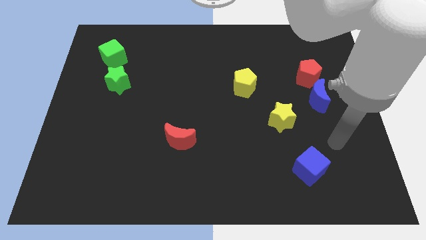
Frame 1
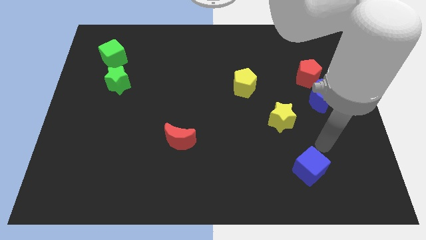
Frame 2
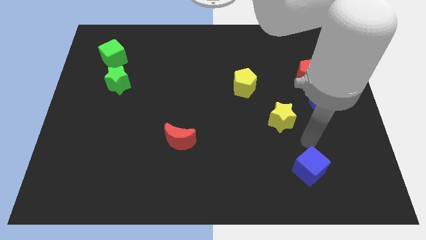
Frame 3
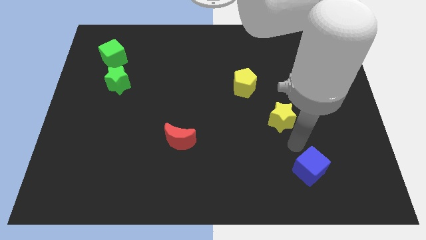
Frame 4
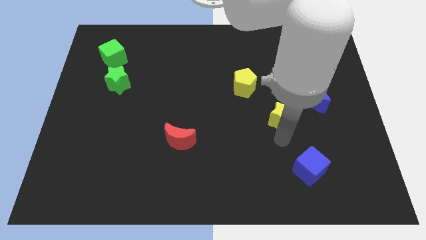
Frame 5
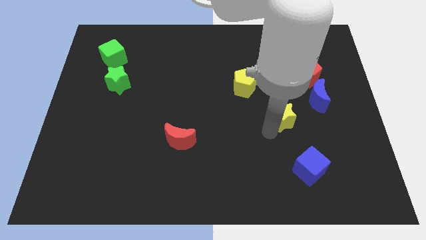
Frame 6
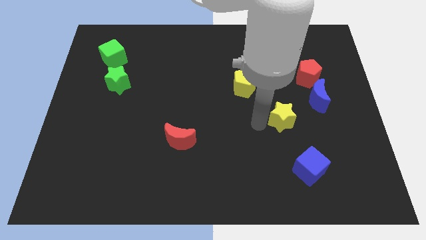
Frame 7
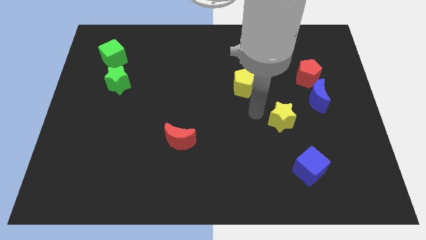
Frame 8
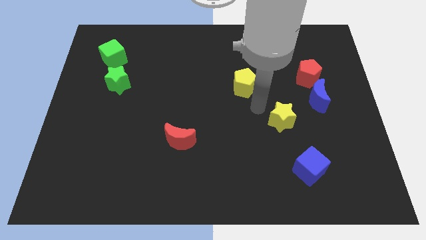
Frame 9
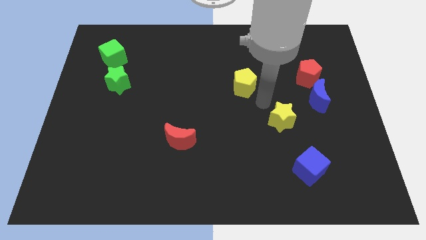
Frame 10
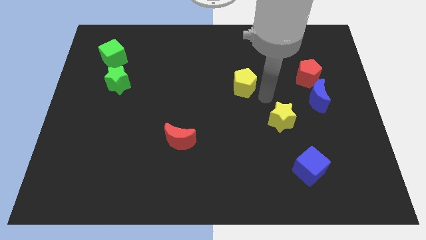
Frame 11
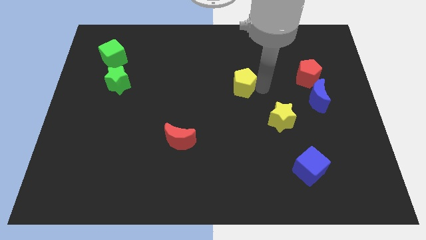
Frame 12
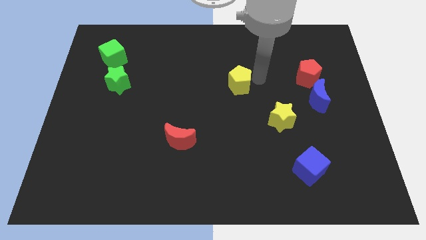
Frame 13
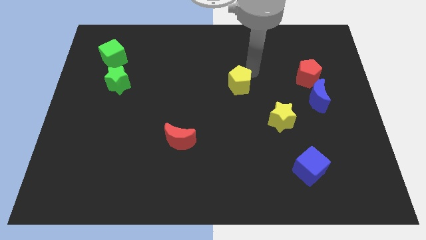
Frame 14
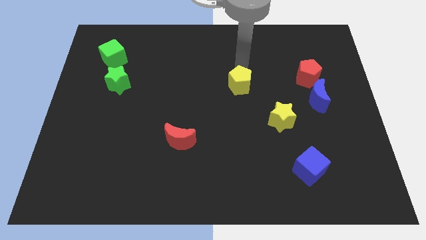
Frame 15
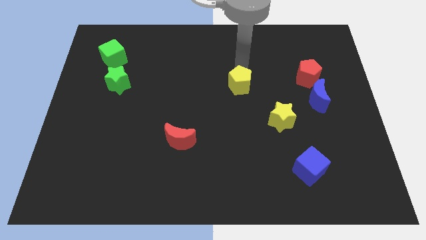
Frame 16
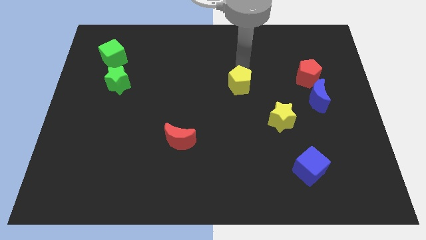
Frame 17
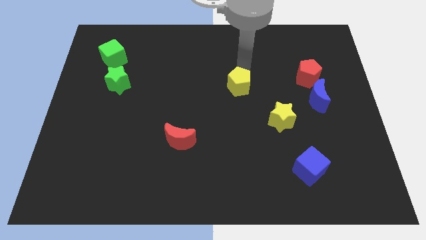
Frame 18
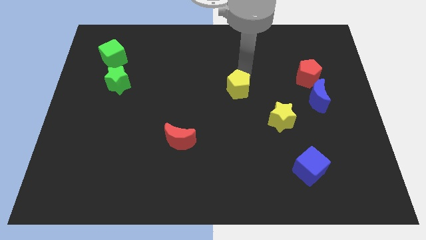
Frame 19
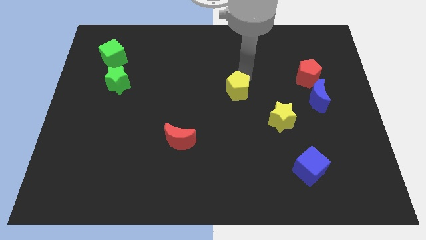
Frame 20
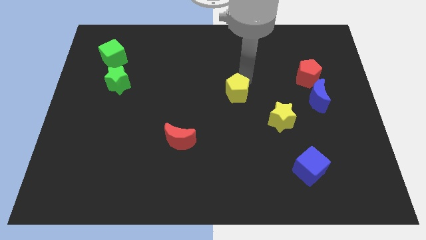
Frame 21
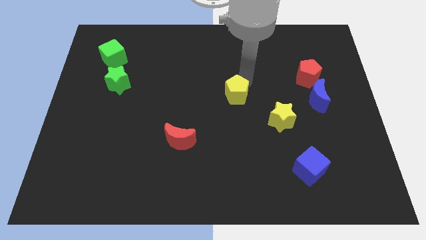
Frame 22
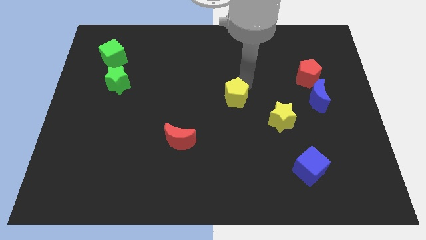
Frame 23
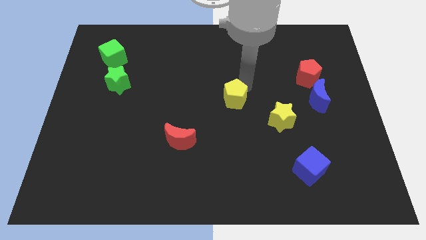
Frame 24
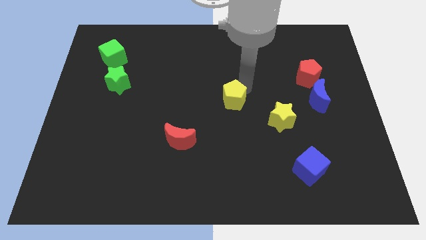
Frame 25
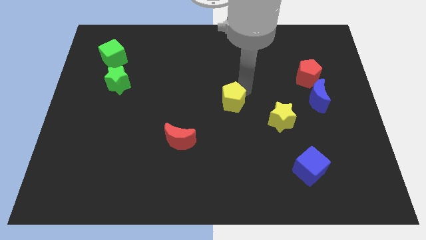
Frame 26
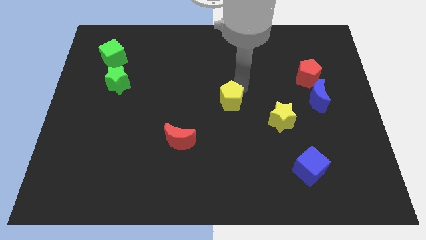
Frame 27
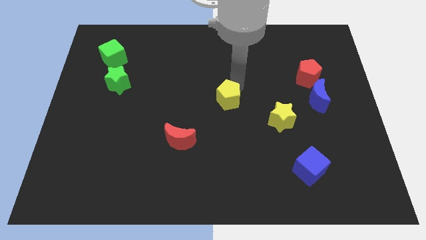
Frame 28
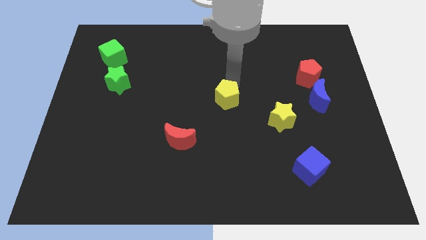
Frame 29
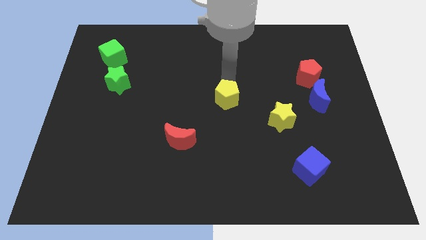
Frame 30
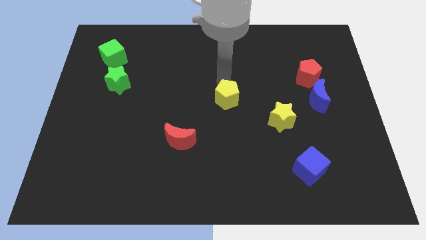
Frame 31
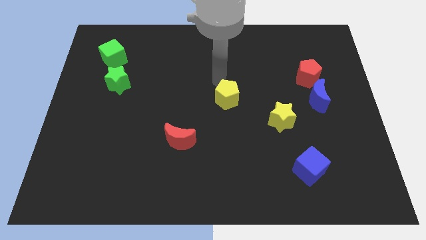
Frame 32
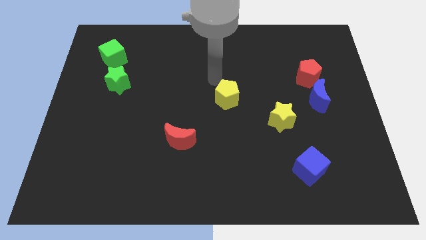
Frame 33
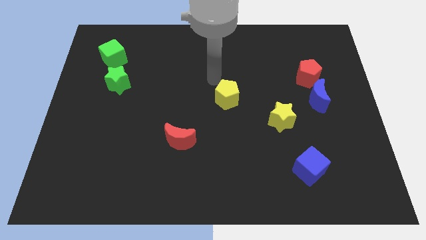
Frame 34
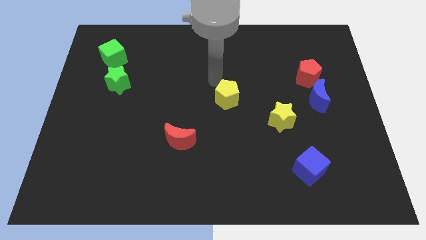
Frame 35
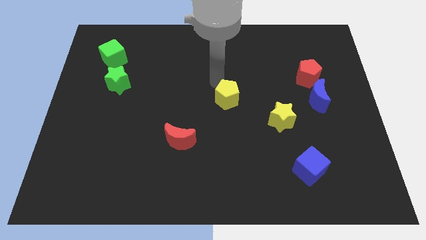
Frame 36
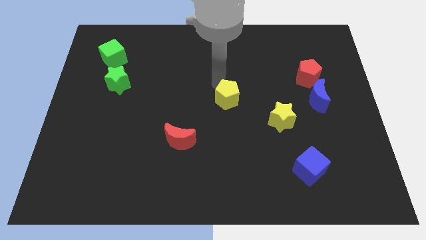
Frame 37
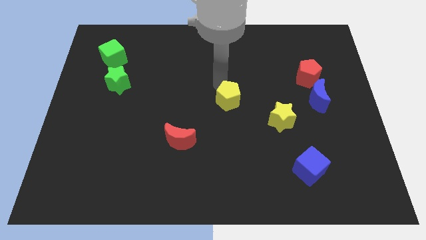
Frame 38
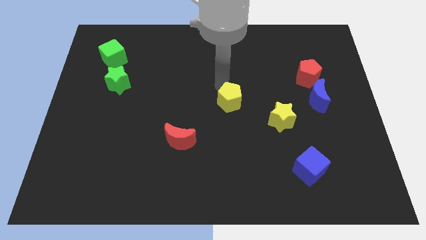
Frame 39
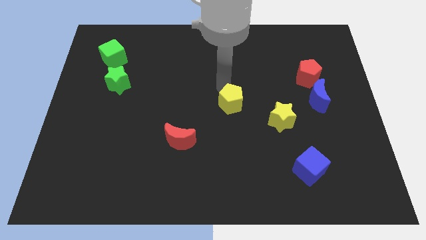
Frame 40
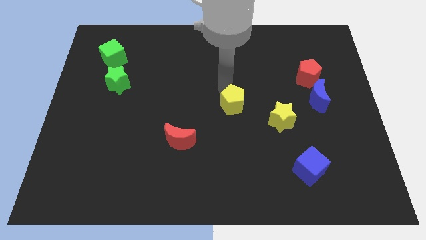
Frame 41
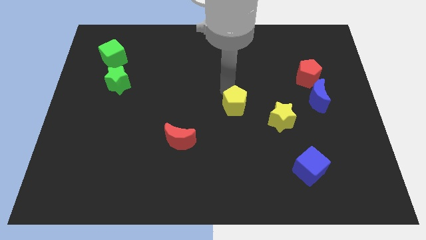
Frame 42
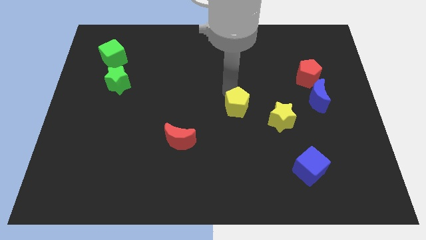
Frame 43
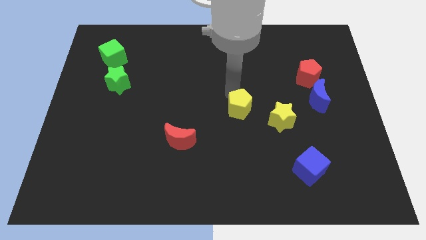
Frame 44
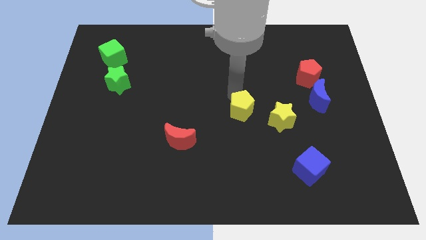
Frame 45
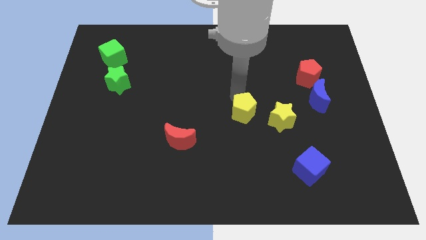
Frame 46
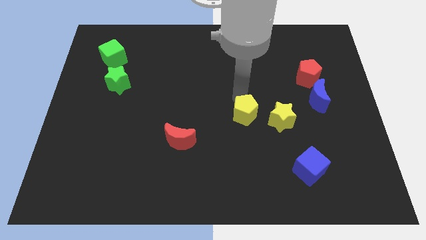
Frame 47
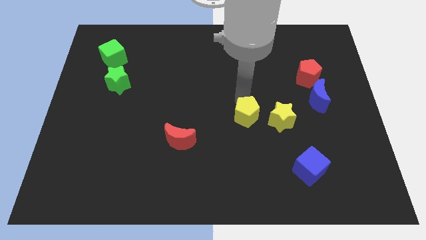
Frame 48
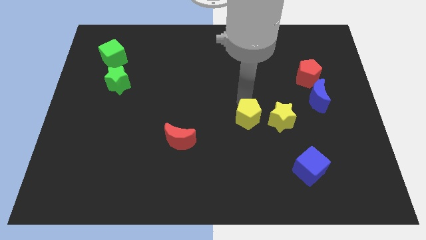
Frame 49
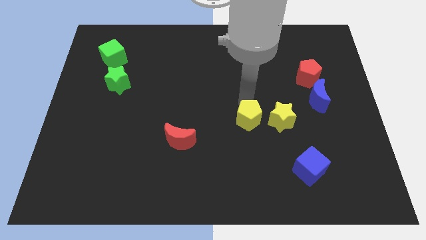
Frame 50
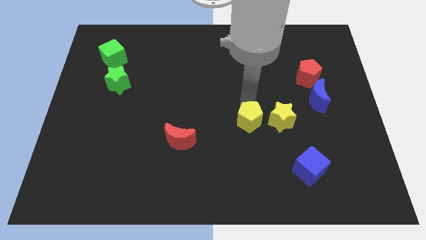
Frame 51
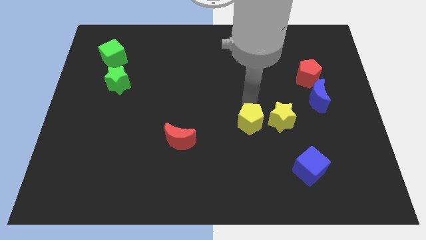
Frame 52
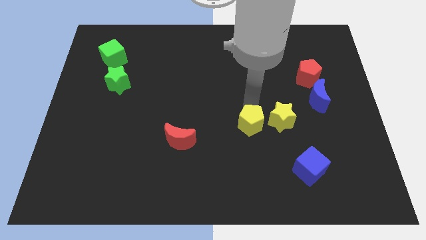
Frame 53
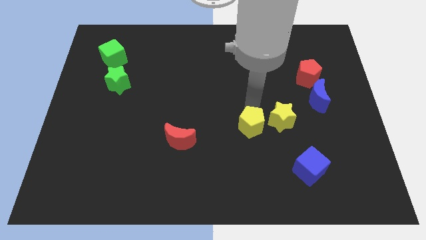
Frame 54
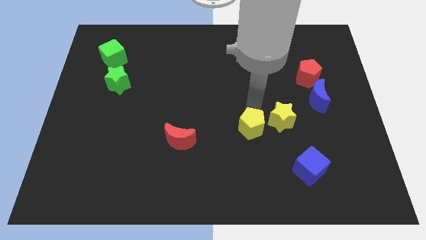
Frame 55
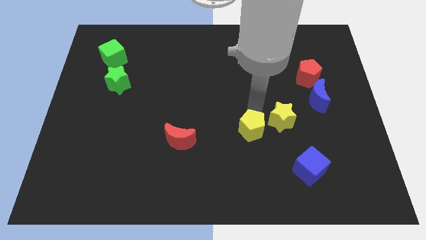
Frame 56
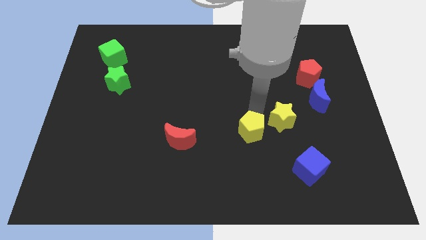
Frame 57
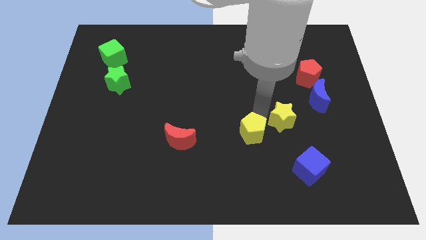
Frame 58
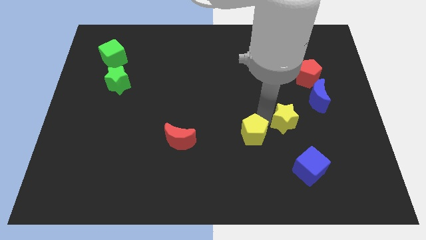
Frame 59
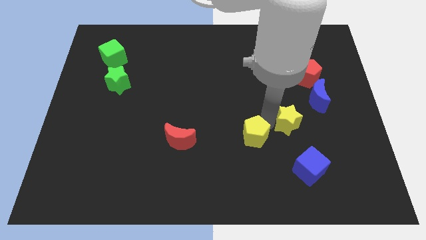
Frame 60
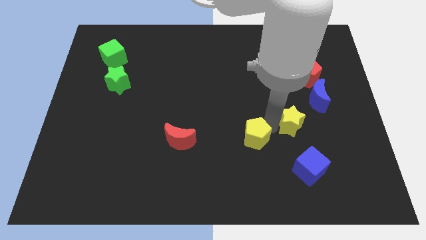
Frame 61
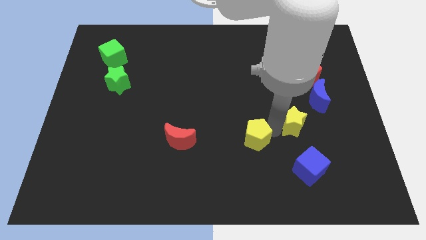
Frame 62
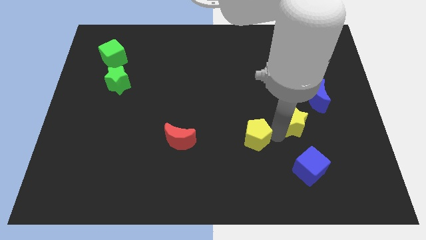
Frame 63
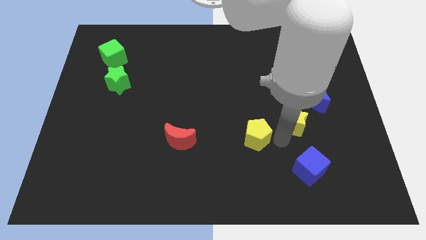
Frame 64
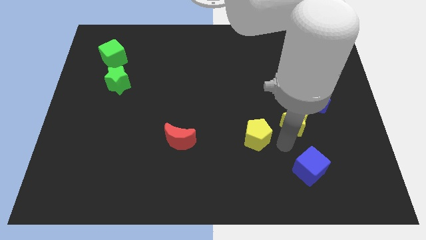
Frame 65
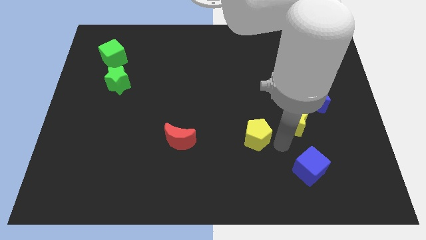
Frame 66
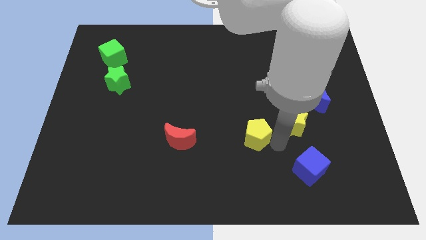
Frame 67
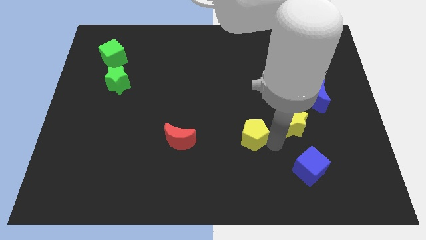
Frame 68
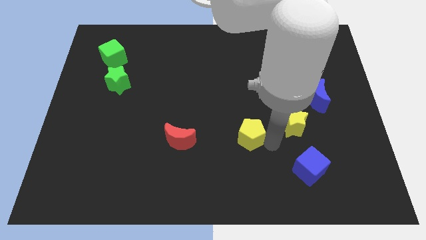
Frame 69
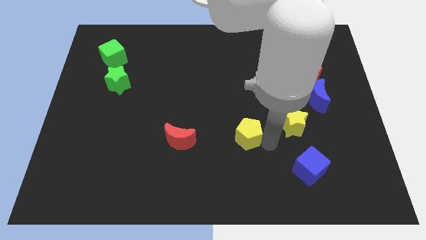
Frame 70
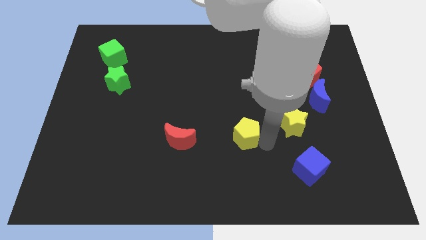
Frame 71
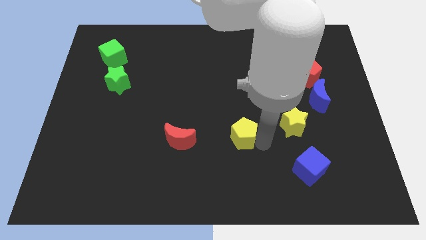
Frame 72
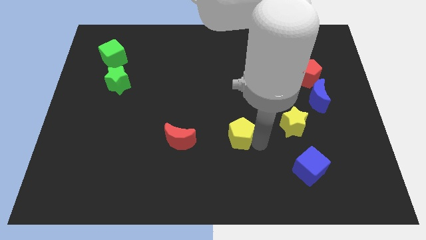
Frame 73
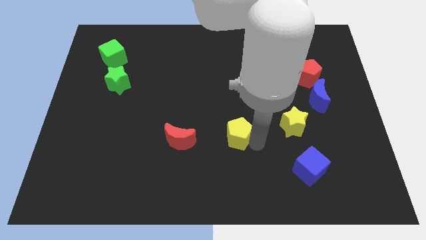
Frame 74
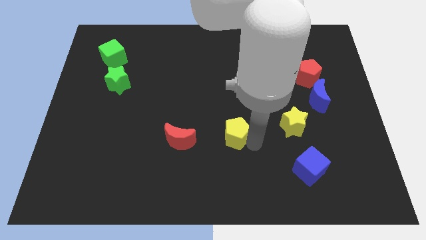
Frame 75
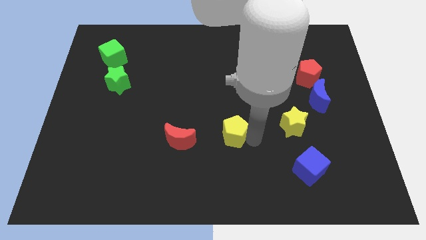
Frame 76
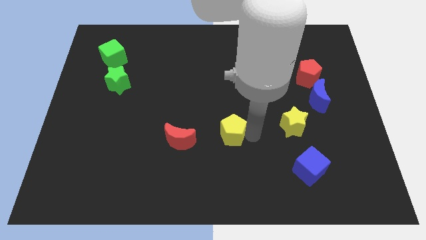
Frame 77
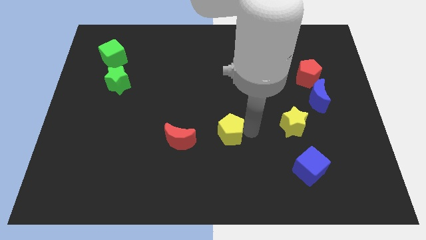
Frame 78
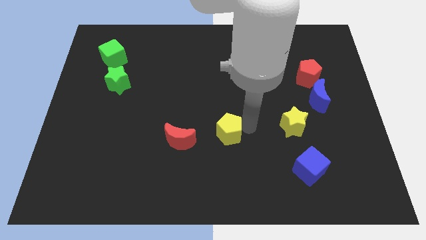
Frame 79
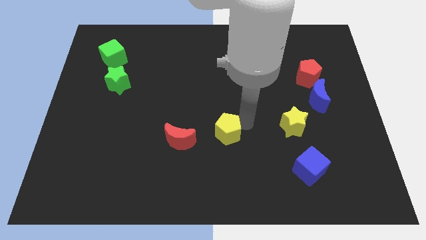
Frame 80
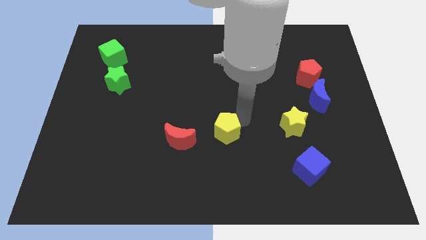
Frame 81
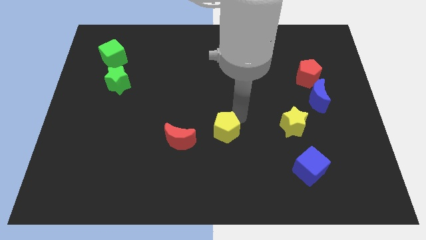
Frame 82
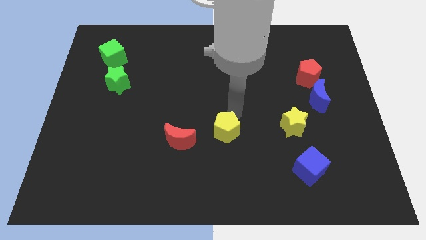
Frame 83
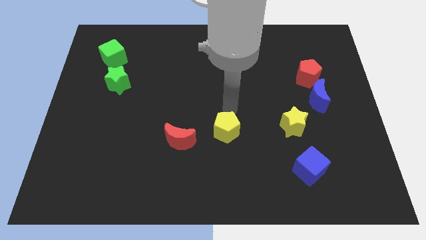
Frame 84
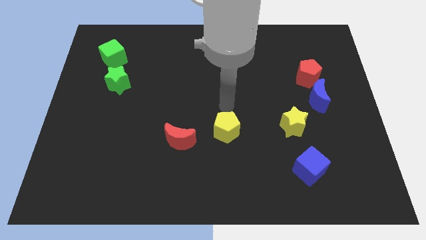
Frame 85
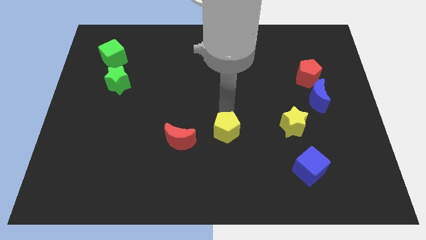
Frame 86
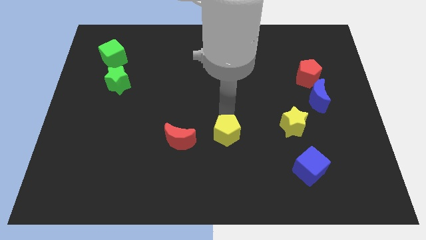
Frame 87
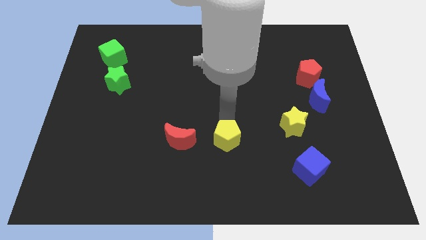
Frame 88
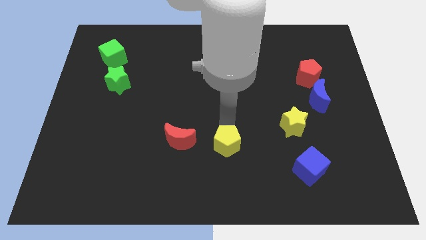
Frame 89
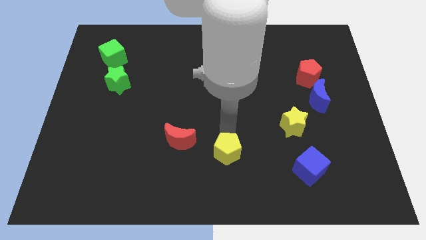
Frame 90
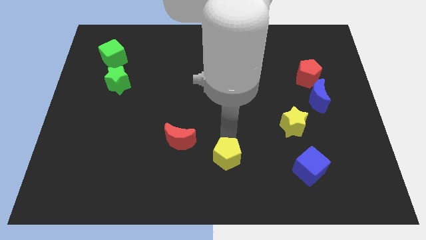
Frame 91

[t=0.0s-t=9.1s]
push the yellow pentagon to the bottom side
